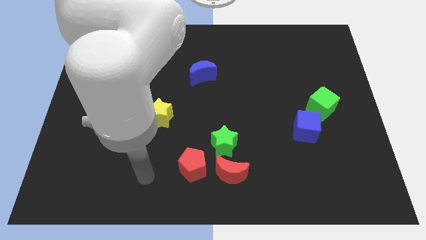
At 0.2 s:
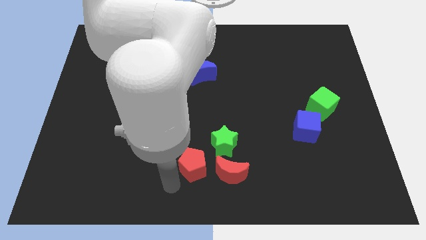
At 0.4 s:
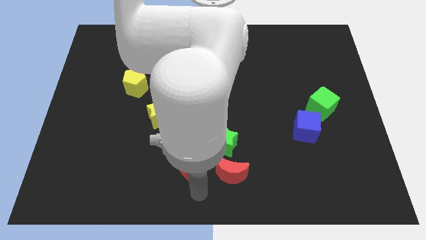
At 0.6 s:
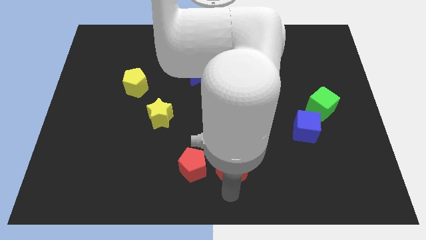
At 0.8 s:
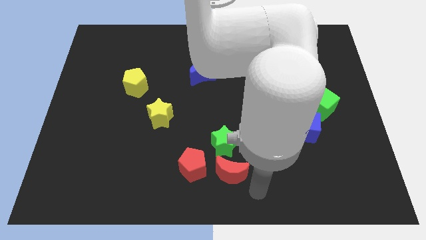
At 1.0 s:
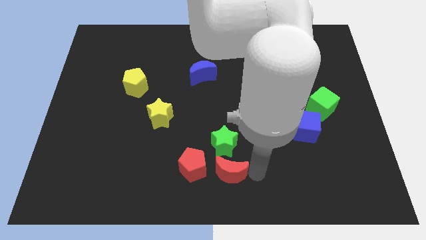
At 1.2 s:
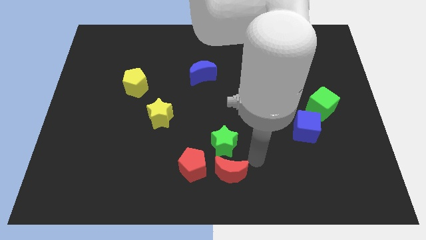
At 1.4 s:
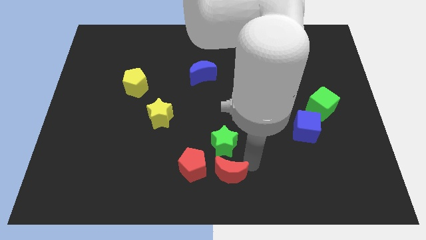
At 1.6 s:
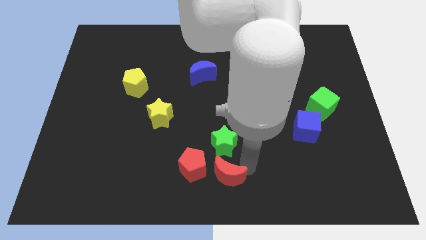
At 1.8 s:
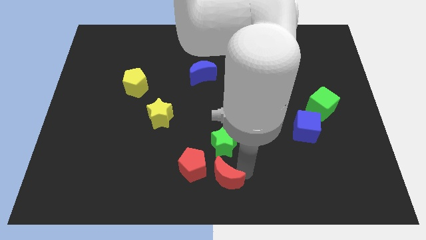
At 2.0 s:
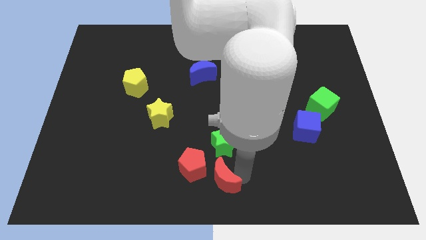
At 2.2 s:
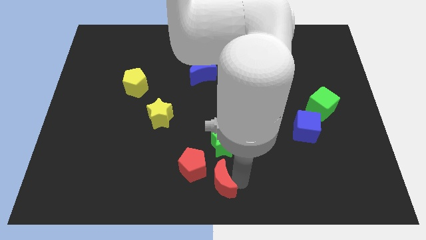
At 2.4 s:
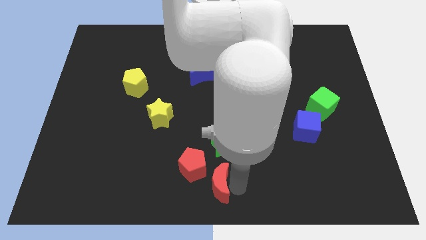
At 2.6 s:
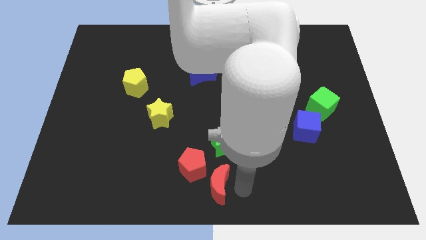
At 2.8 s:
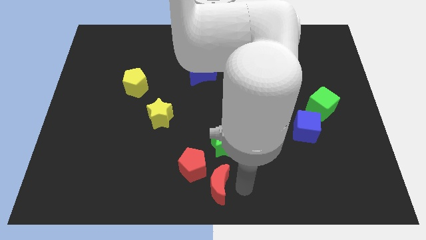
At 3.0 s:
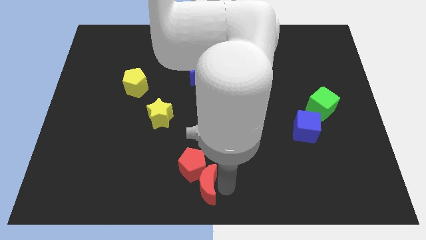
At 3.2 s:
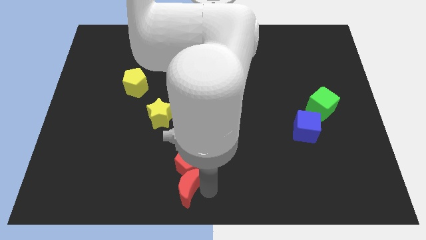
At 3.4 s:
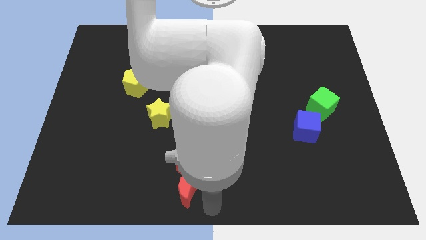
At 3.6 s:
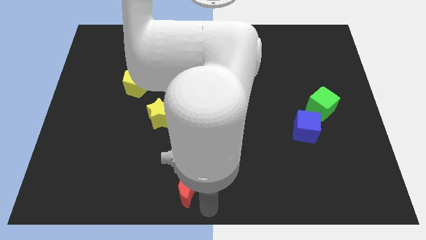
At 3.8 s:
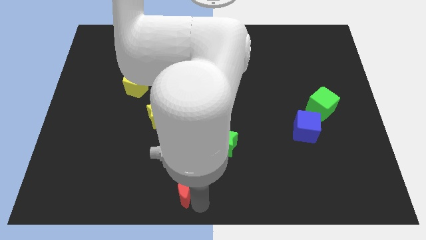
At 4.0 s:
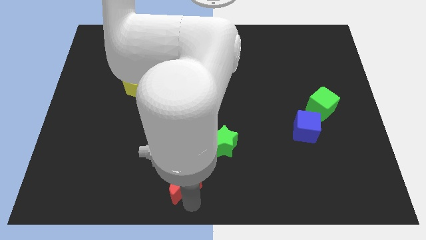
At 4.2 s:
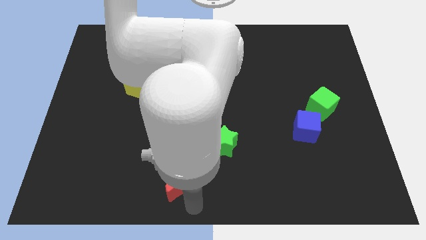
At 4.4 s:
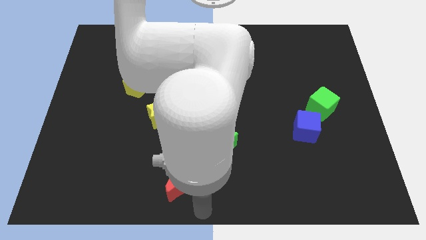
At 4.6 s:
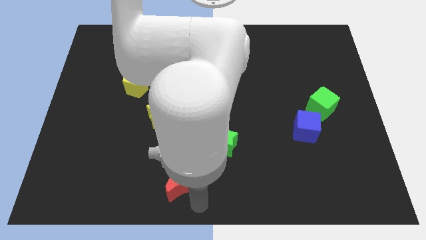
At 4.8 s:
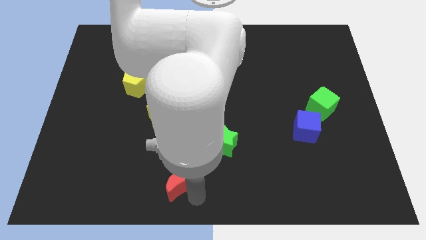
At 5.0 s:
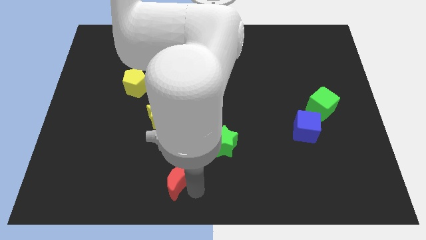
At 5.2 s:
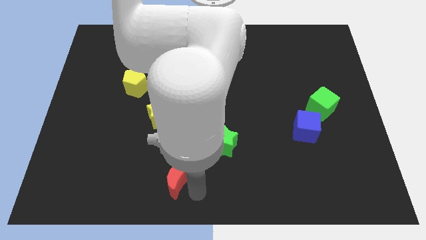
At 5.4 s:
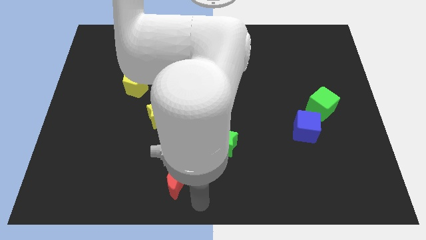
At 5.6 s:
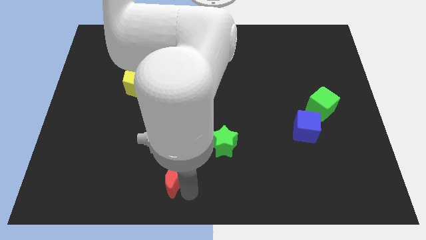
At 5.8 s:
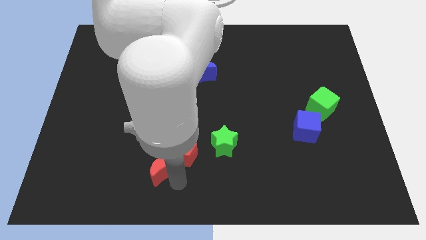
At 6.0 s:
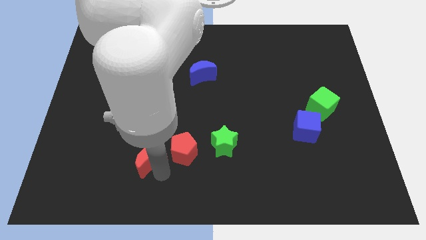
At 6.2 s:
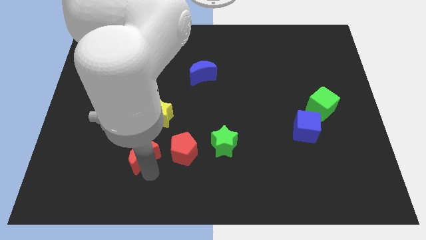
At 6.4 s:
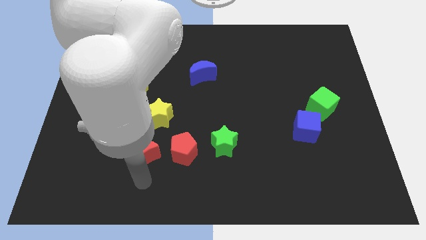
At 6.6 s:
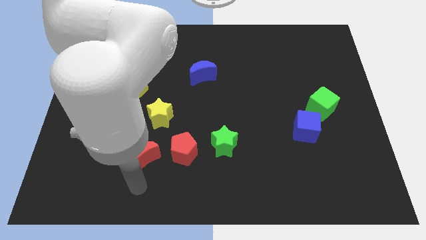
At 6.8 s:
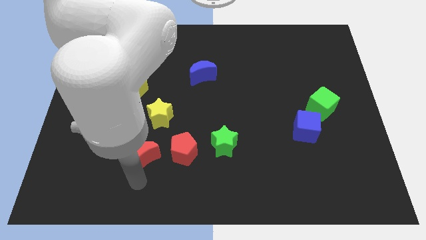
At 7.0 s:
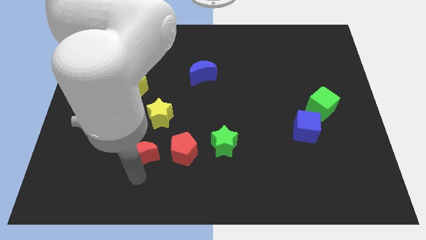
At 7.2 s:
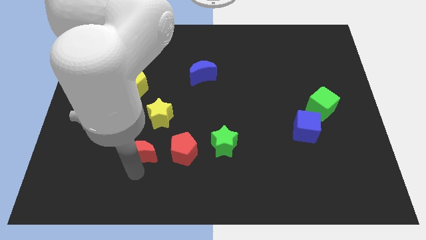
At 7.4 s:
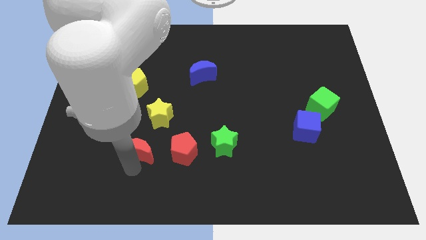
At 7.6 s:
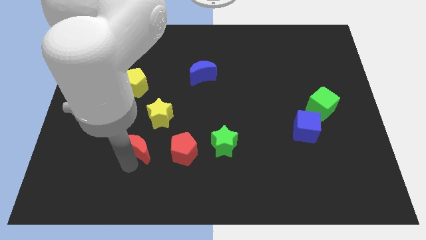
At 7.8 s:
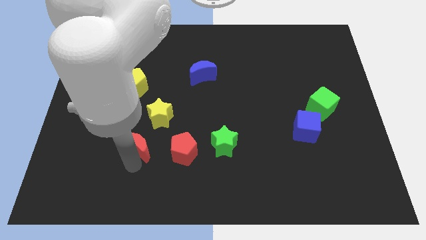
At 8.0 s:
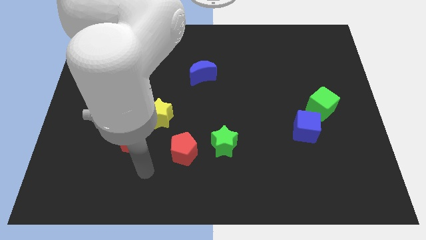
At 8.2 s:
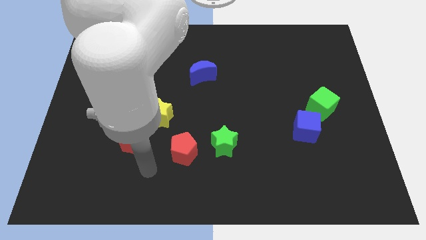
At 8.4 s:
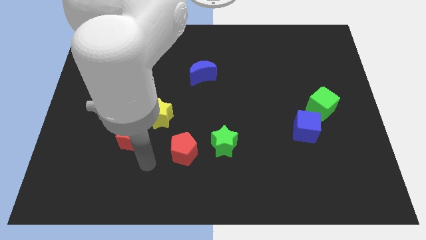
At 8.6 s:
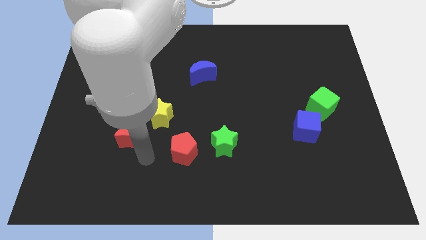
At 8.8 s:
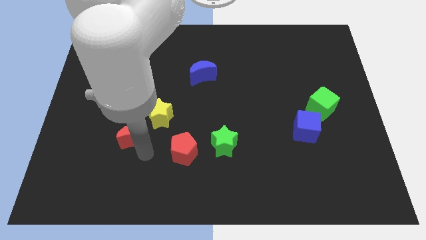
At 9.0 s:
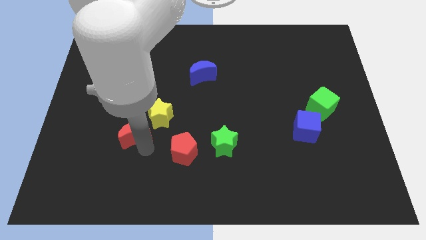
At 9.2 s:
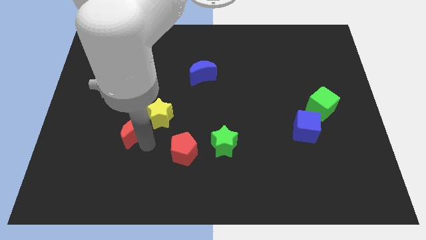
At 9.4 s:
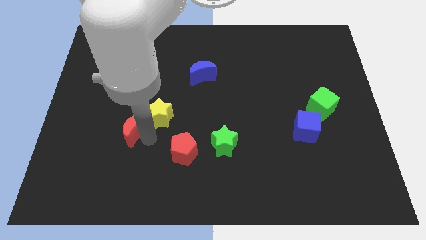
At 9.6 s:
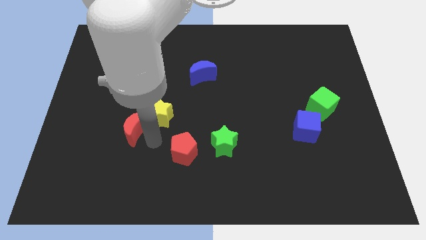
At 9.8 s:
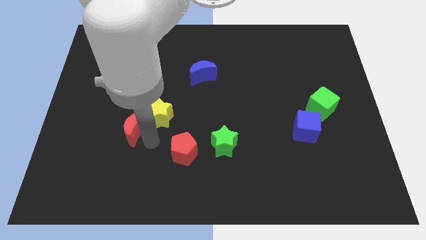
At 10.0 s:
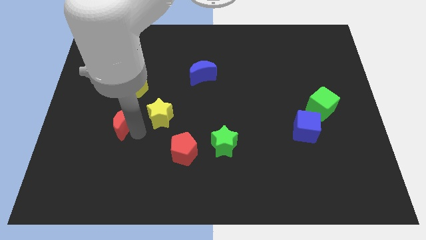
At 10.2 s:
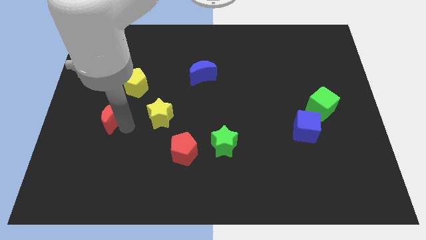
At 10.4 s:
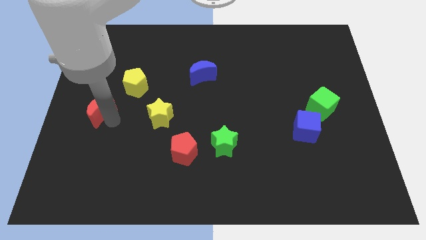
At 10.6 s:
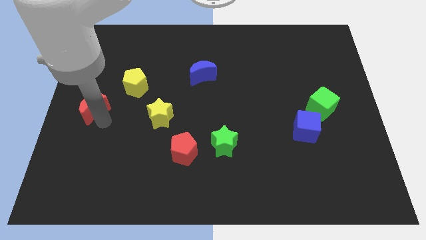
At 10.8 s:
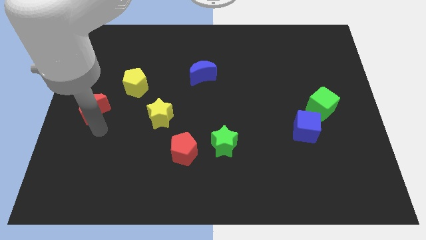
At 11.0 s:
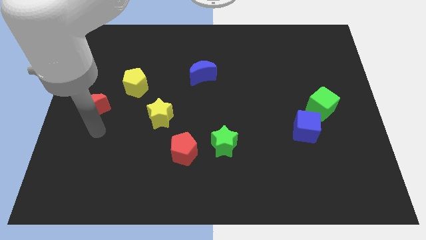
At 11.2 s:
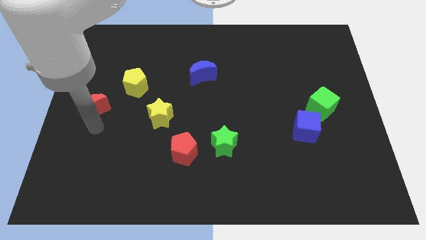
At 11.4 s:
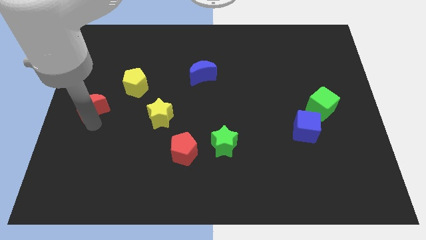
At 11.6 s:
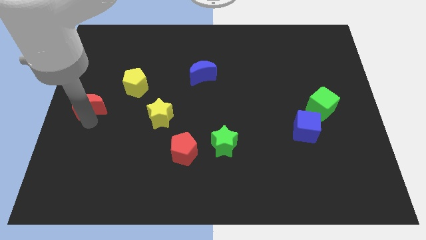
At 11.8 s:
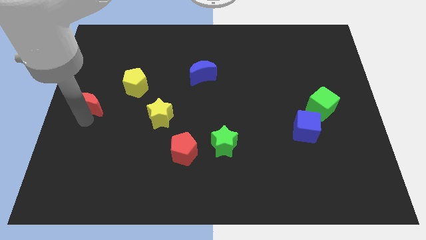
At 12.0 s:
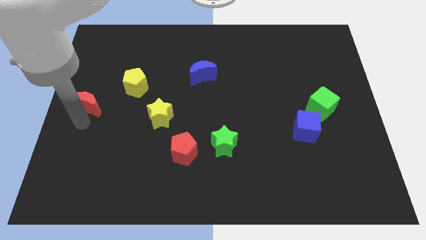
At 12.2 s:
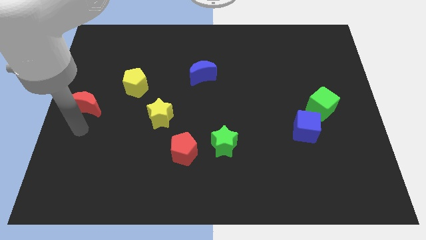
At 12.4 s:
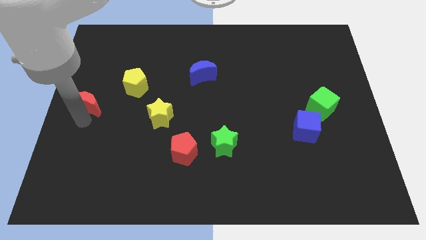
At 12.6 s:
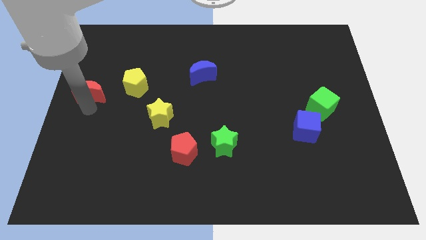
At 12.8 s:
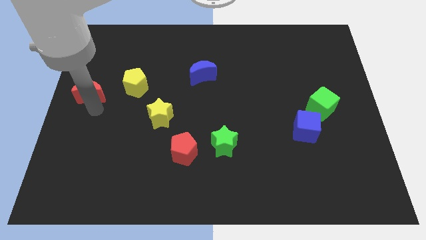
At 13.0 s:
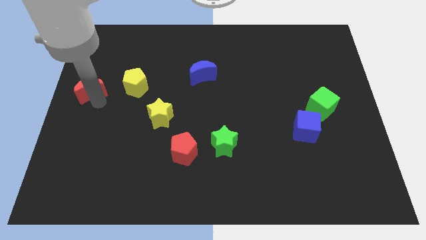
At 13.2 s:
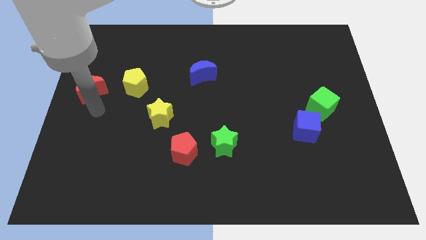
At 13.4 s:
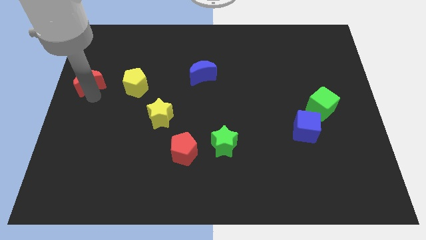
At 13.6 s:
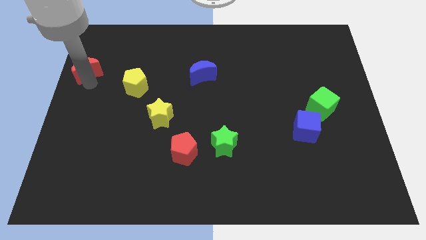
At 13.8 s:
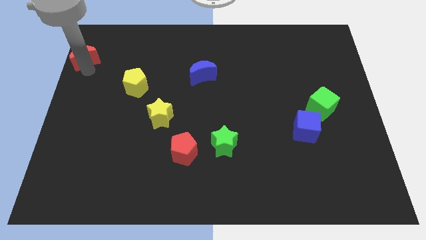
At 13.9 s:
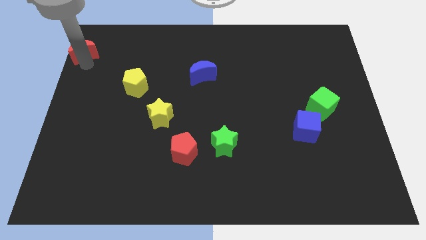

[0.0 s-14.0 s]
move the red moon to the upper left corner

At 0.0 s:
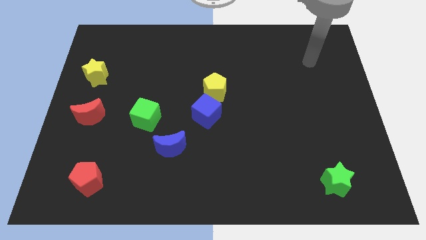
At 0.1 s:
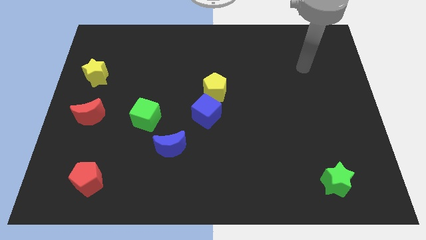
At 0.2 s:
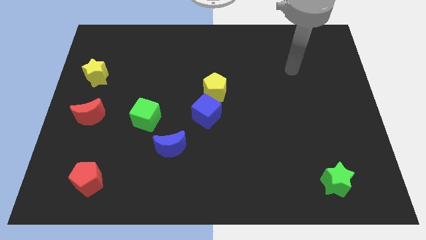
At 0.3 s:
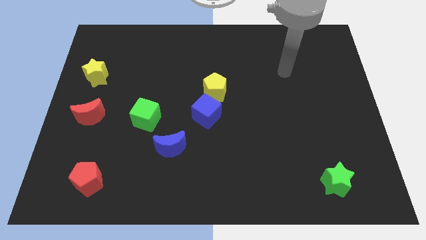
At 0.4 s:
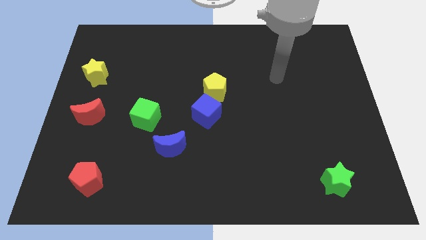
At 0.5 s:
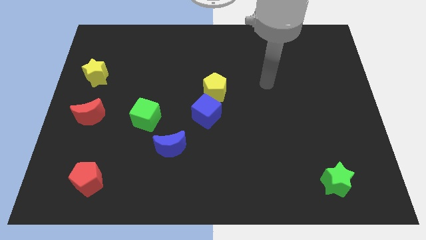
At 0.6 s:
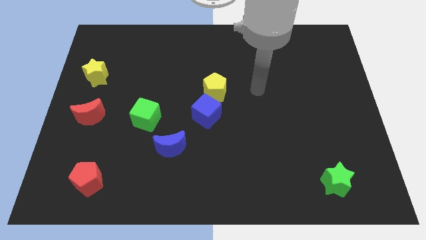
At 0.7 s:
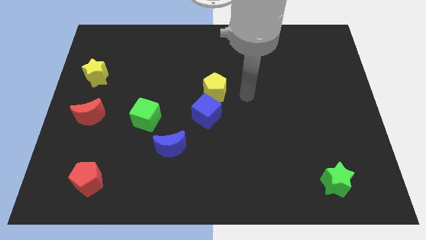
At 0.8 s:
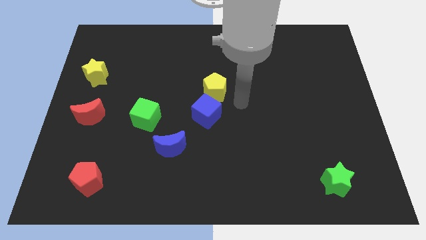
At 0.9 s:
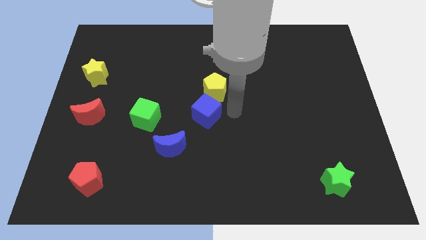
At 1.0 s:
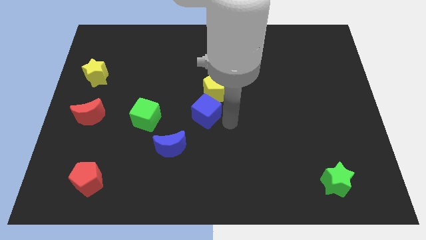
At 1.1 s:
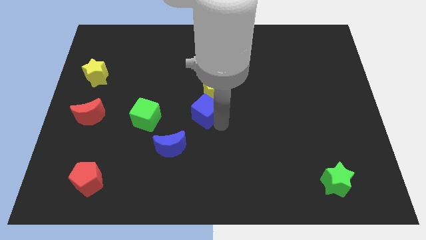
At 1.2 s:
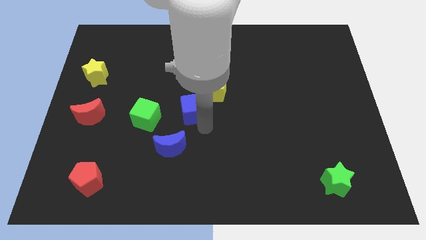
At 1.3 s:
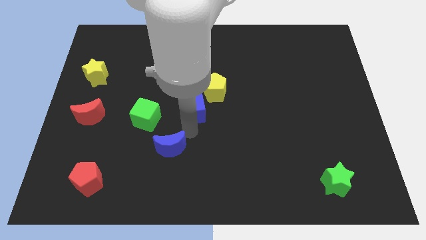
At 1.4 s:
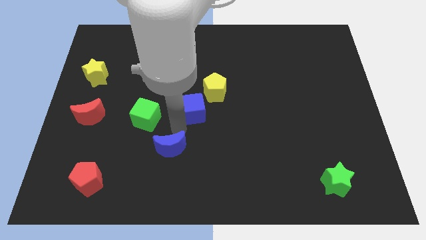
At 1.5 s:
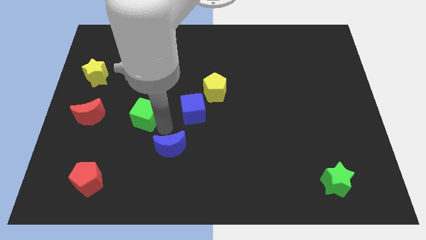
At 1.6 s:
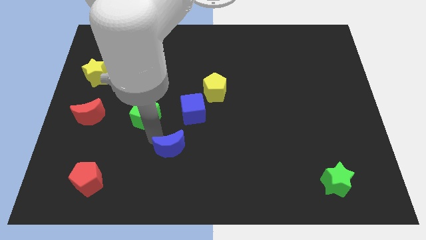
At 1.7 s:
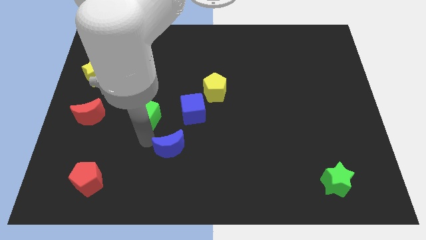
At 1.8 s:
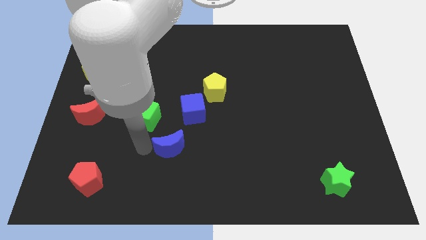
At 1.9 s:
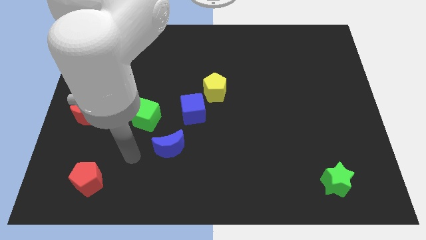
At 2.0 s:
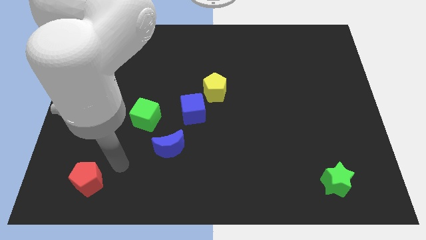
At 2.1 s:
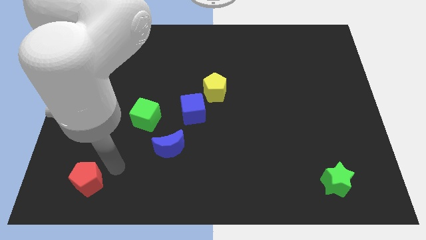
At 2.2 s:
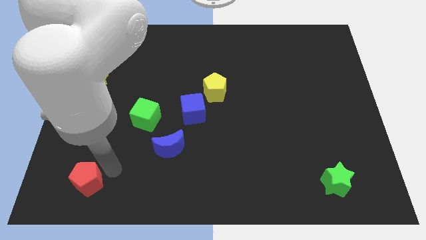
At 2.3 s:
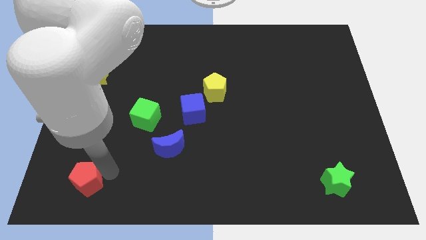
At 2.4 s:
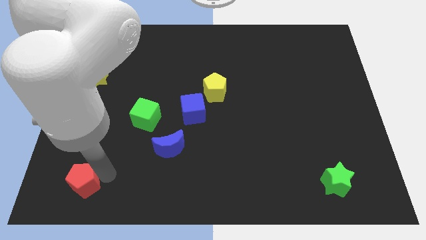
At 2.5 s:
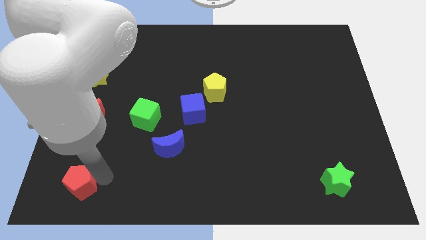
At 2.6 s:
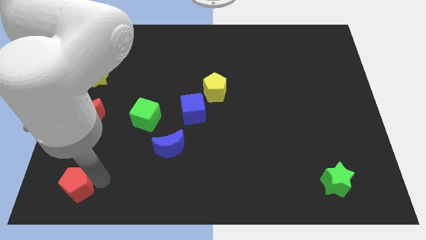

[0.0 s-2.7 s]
push the red pentagon to the bottom left
